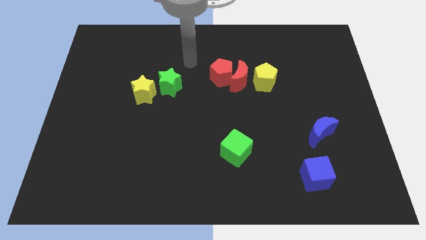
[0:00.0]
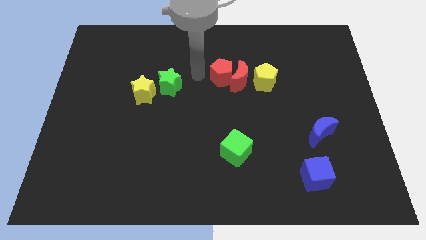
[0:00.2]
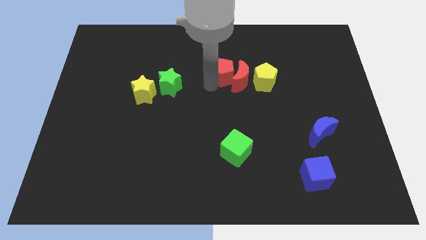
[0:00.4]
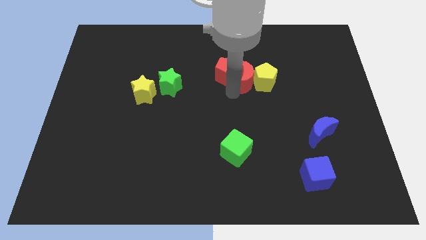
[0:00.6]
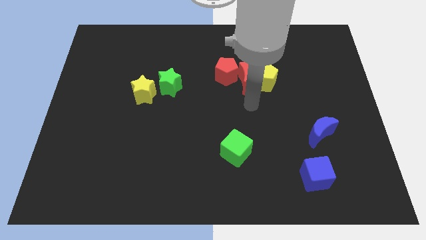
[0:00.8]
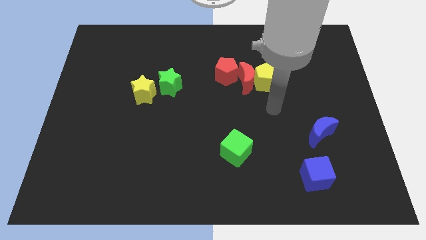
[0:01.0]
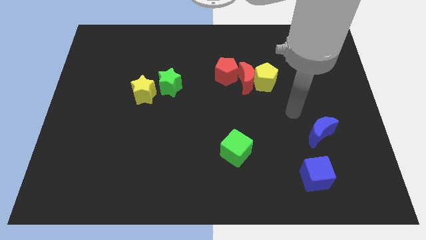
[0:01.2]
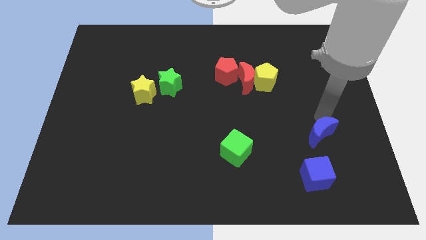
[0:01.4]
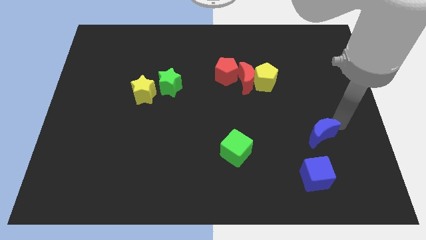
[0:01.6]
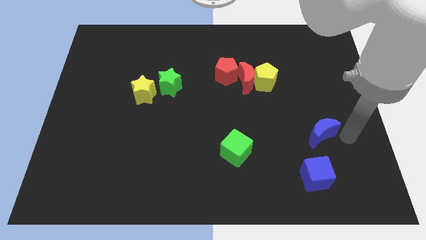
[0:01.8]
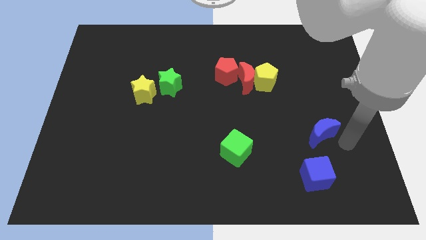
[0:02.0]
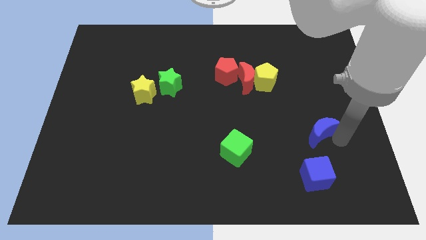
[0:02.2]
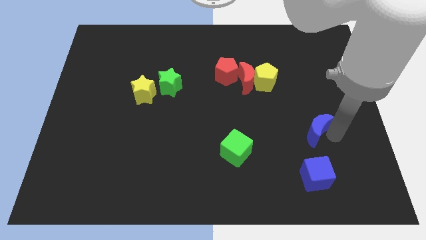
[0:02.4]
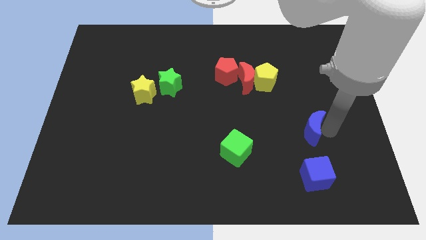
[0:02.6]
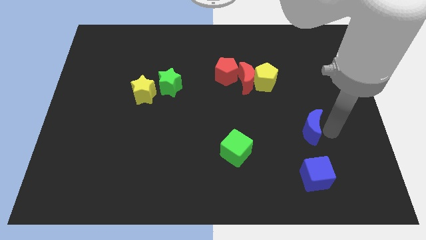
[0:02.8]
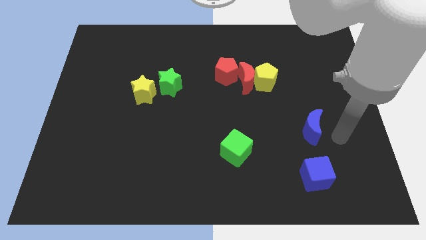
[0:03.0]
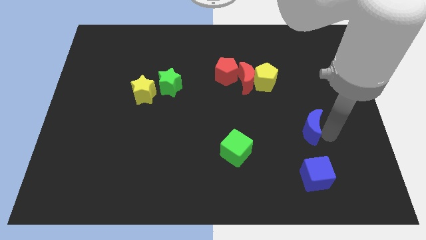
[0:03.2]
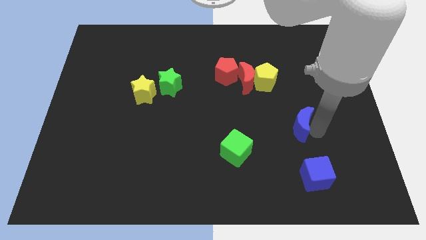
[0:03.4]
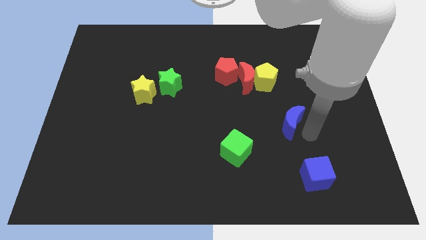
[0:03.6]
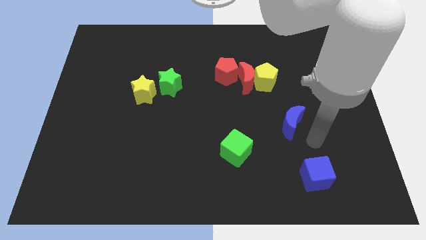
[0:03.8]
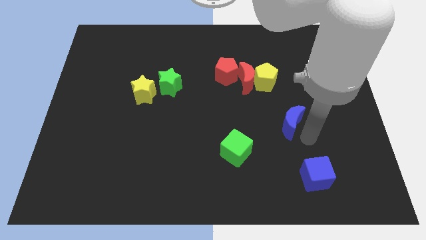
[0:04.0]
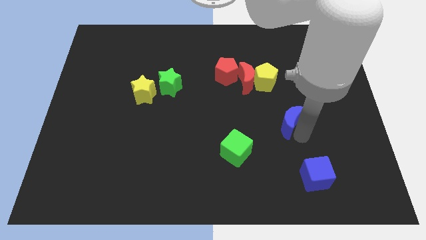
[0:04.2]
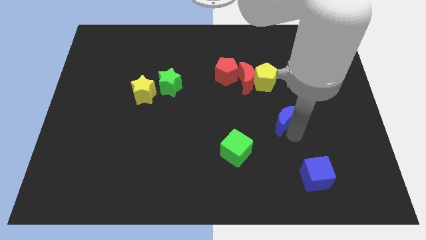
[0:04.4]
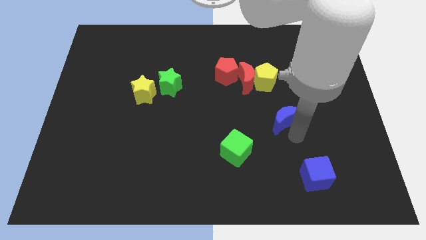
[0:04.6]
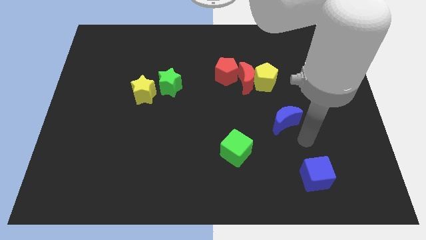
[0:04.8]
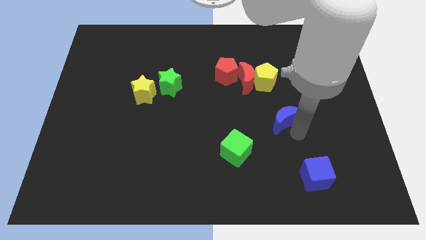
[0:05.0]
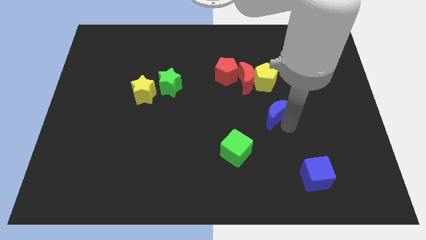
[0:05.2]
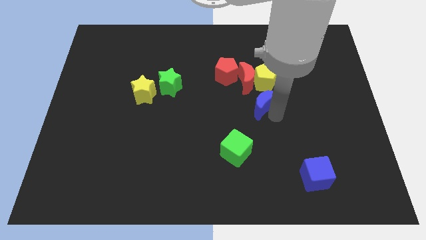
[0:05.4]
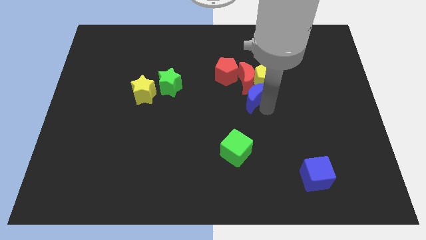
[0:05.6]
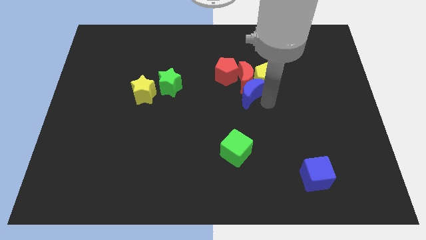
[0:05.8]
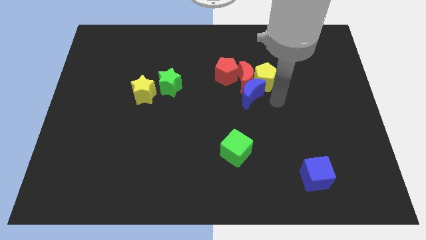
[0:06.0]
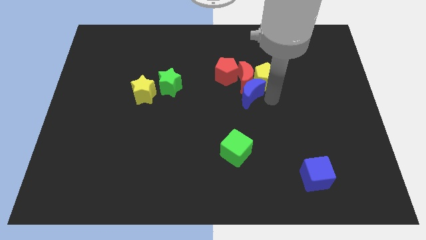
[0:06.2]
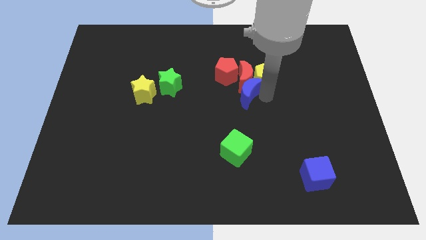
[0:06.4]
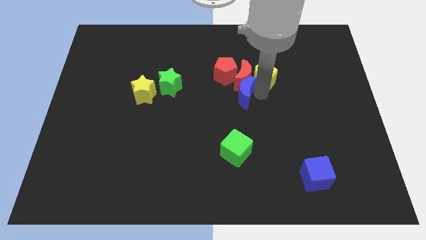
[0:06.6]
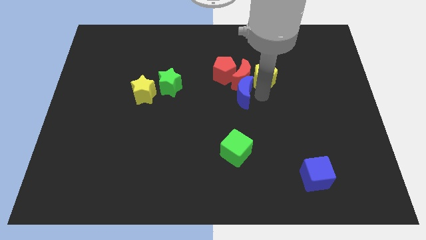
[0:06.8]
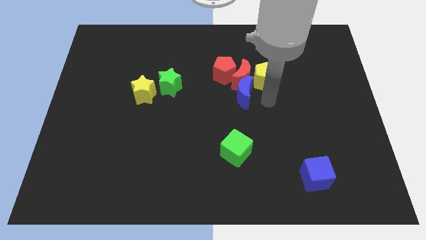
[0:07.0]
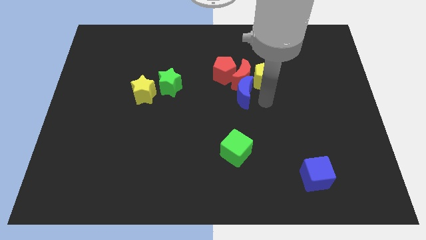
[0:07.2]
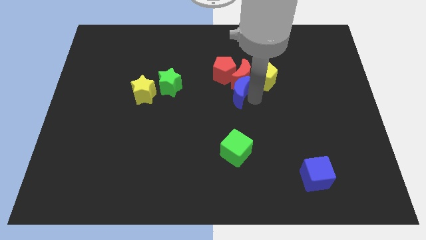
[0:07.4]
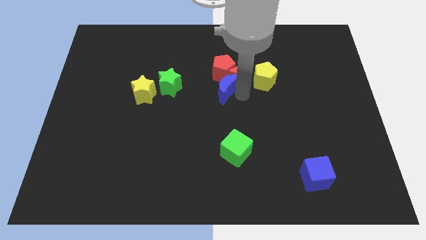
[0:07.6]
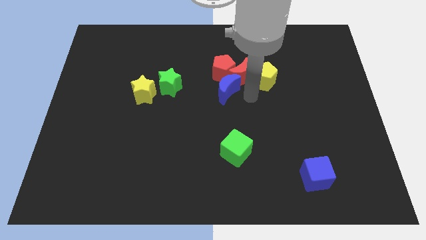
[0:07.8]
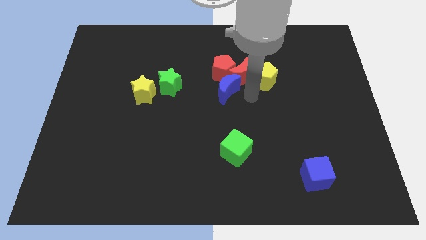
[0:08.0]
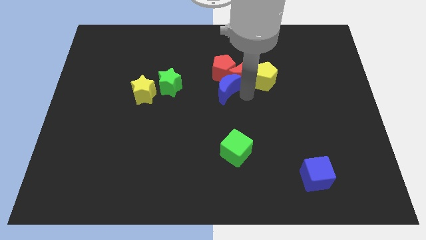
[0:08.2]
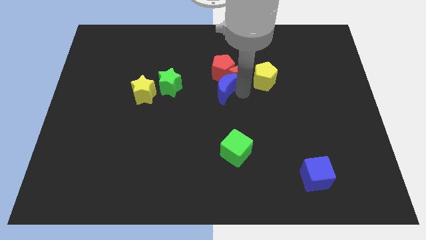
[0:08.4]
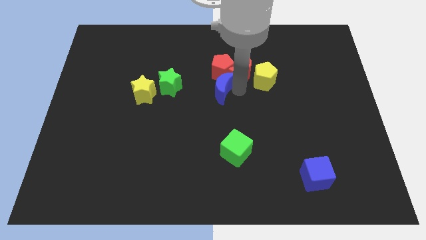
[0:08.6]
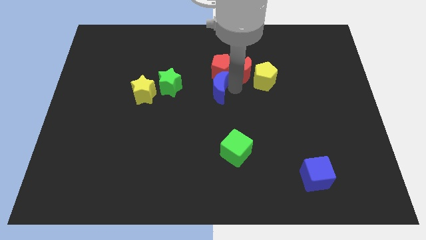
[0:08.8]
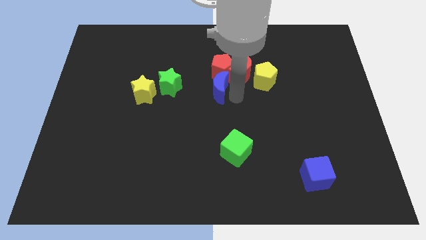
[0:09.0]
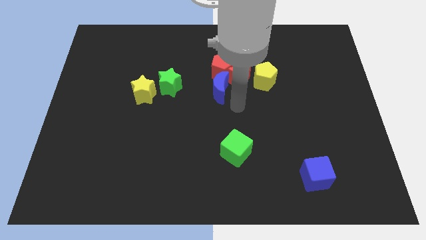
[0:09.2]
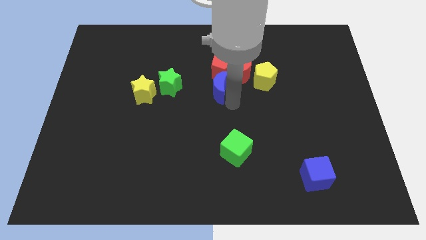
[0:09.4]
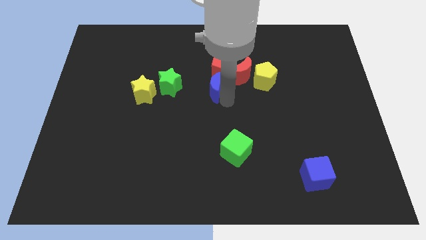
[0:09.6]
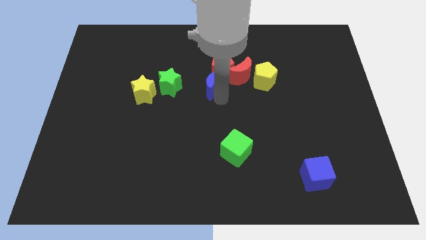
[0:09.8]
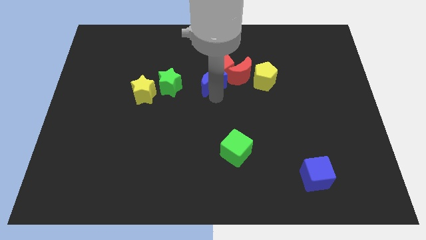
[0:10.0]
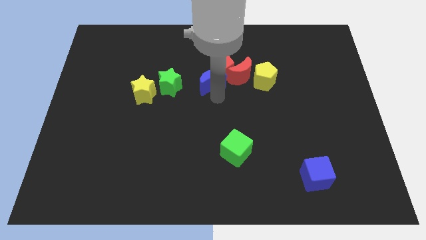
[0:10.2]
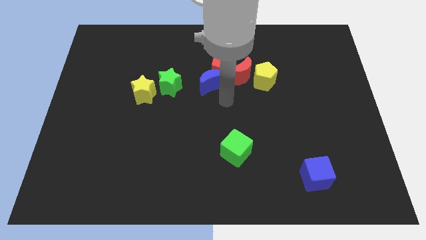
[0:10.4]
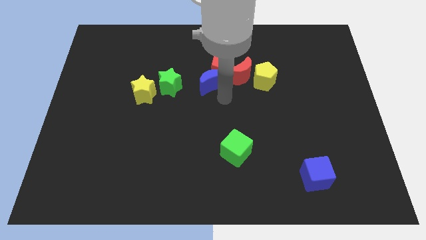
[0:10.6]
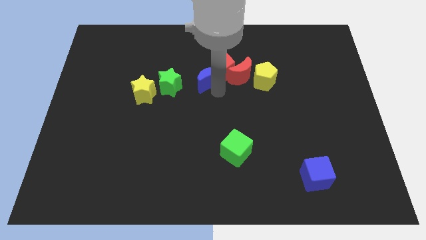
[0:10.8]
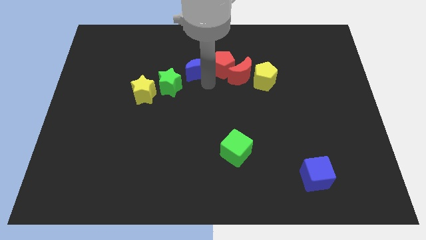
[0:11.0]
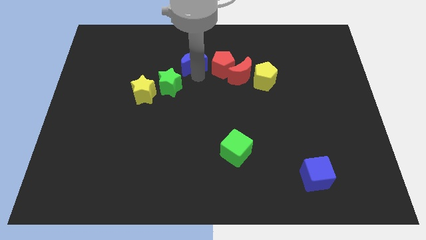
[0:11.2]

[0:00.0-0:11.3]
slide the blue moon to the top left side of the red pentagon

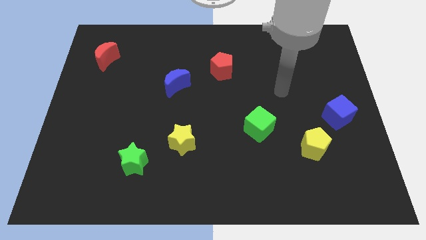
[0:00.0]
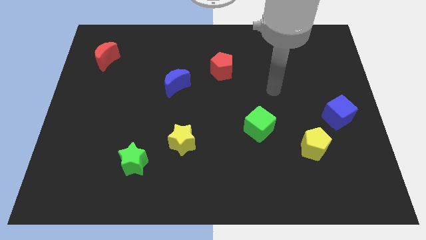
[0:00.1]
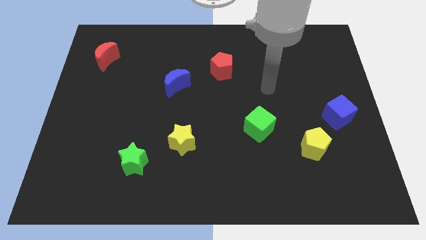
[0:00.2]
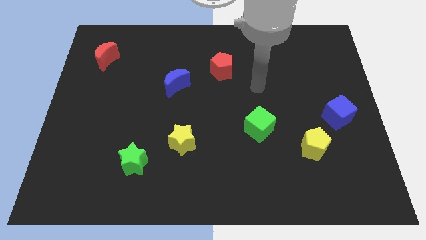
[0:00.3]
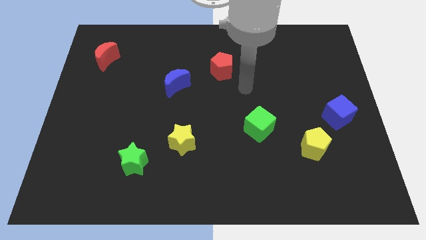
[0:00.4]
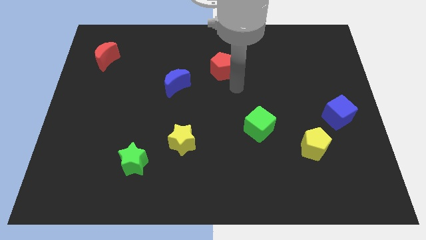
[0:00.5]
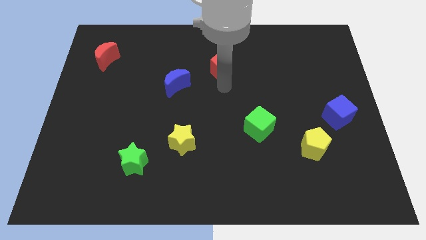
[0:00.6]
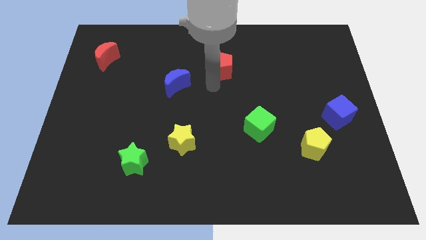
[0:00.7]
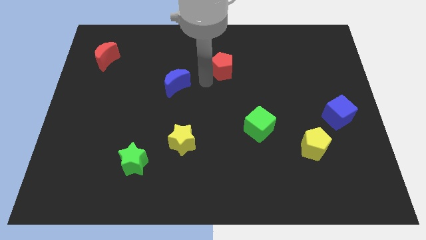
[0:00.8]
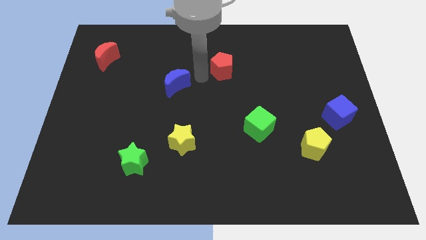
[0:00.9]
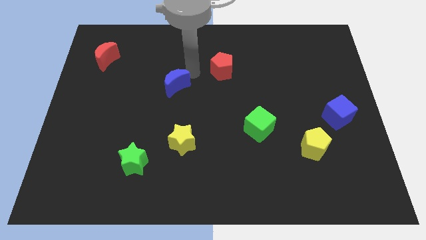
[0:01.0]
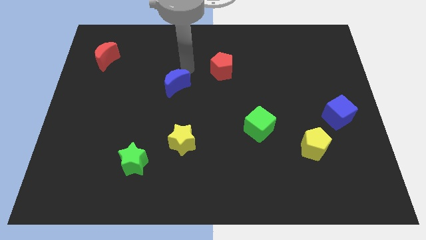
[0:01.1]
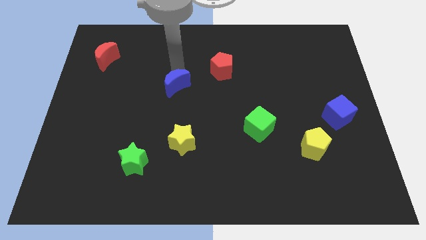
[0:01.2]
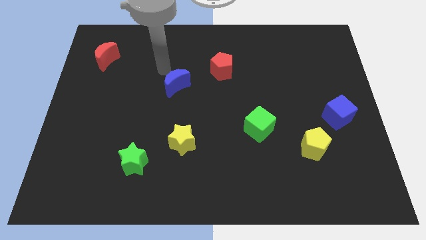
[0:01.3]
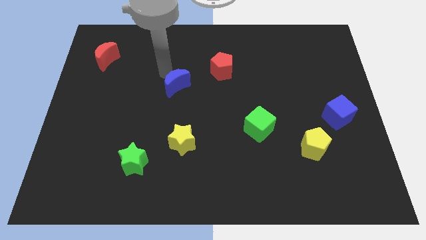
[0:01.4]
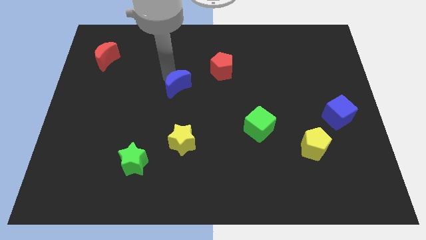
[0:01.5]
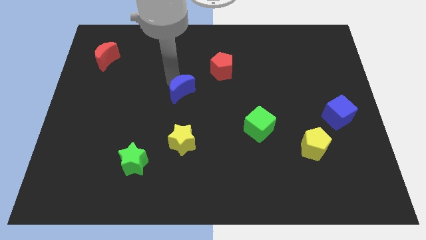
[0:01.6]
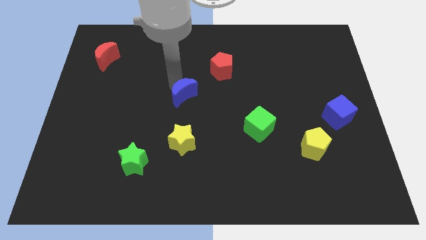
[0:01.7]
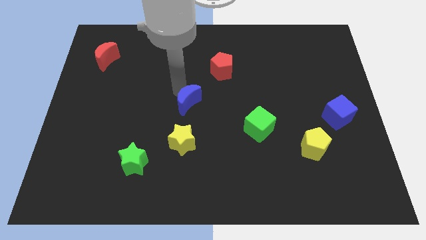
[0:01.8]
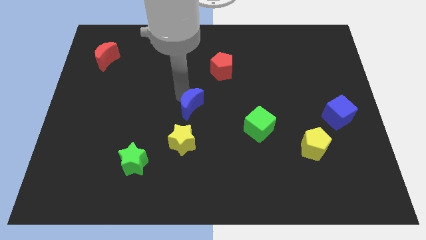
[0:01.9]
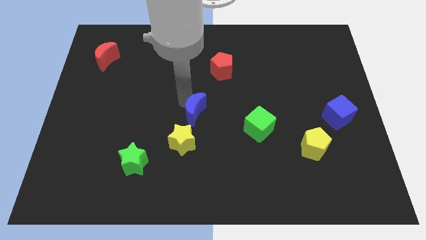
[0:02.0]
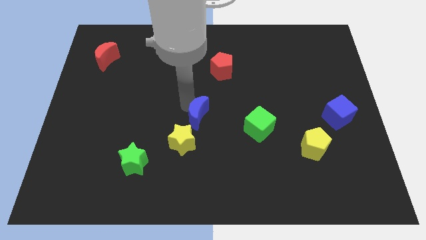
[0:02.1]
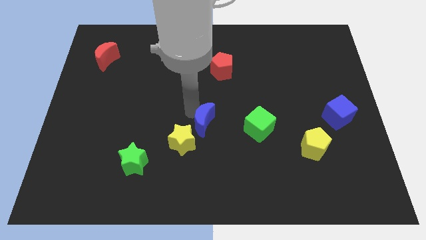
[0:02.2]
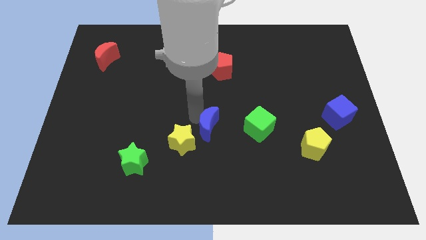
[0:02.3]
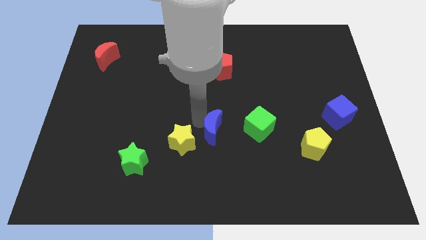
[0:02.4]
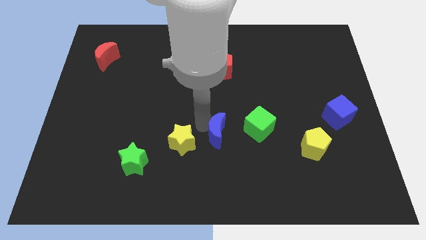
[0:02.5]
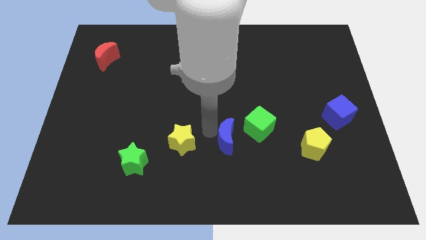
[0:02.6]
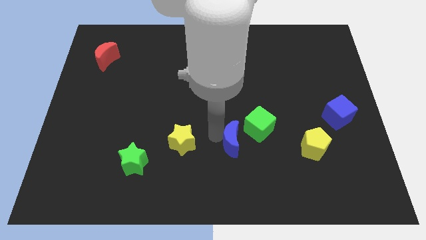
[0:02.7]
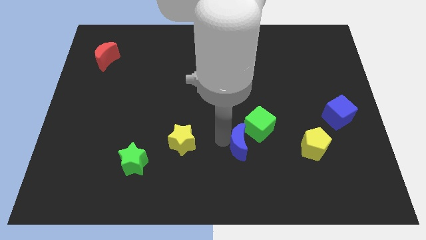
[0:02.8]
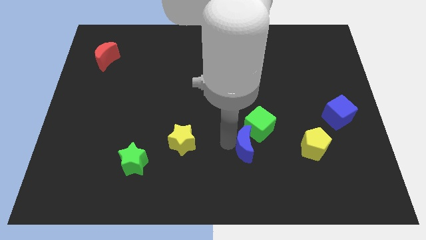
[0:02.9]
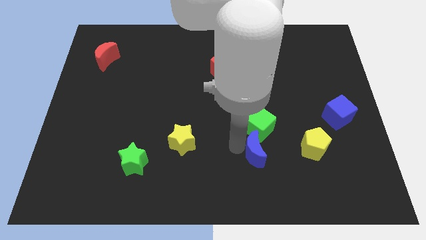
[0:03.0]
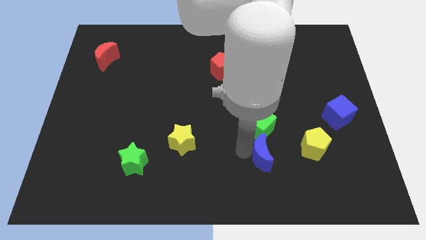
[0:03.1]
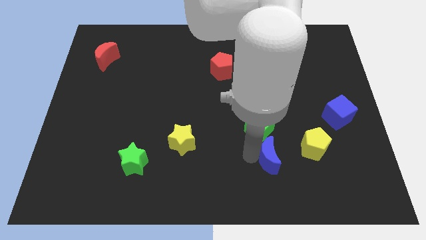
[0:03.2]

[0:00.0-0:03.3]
push the blue moon to the bottom right of the green cube
